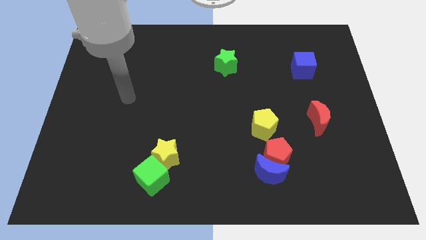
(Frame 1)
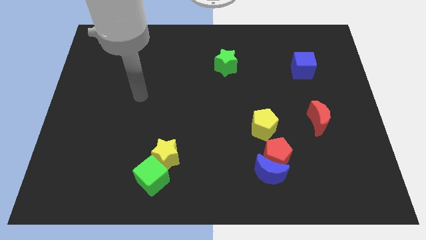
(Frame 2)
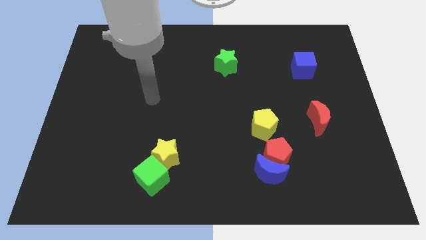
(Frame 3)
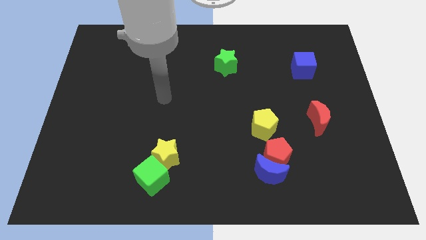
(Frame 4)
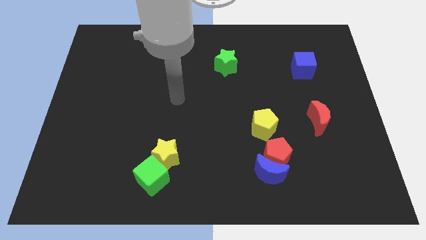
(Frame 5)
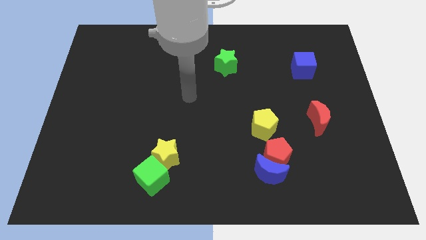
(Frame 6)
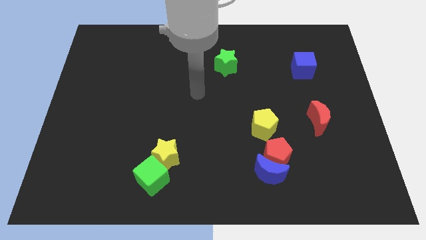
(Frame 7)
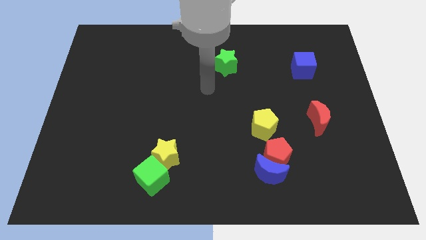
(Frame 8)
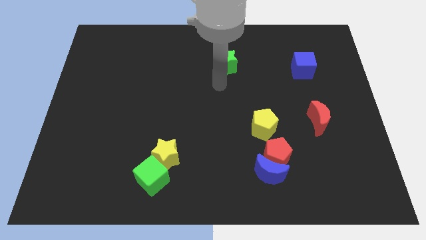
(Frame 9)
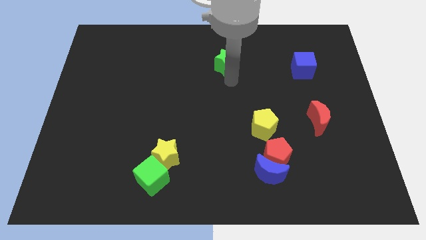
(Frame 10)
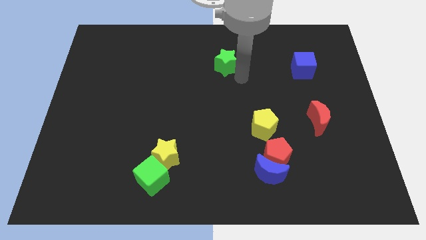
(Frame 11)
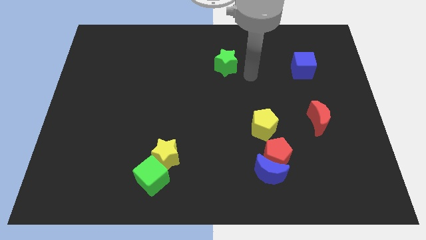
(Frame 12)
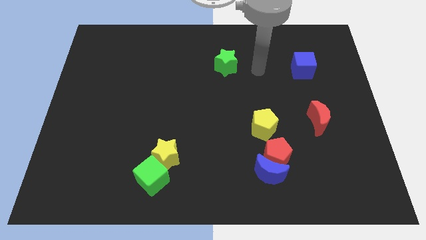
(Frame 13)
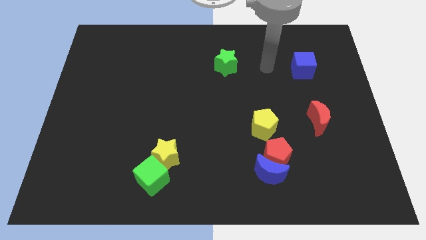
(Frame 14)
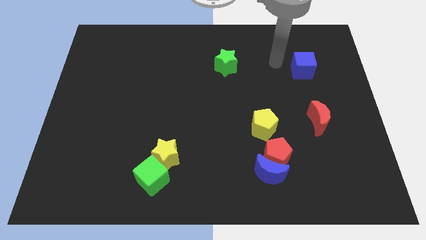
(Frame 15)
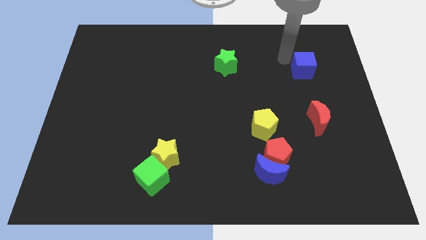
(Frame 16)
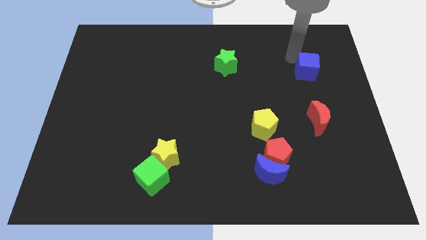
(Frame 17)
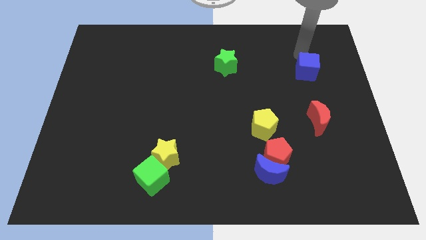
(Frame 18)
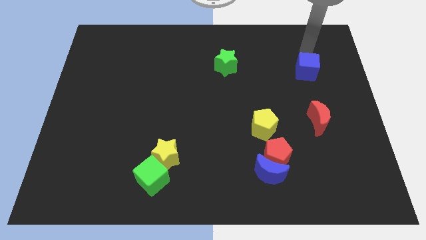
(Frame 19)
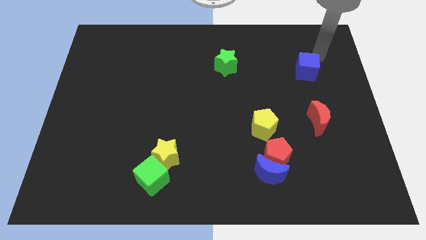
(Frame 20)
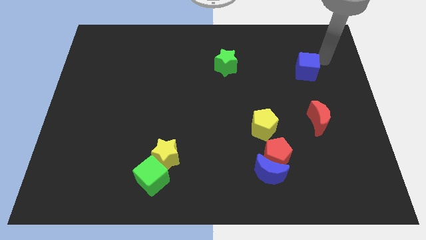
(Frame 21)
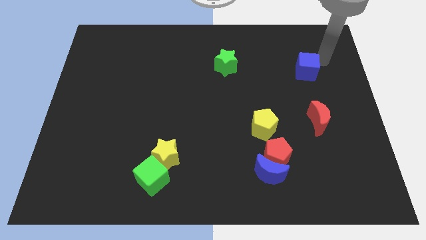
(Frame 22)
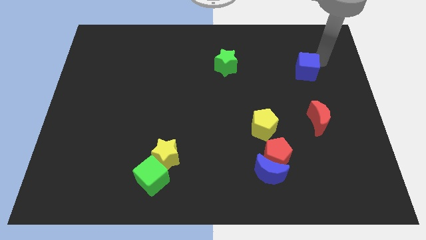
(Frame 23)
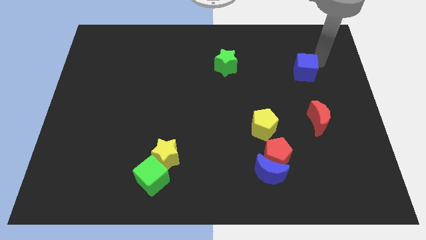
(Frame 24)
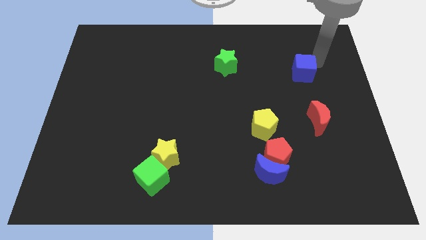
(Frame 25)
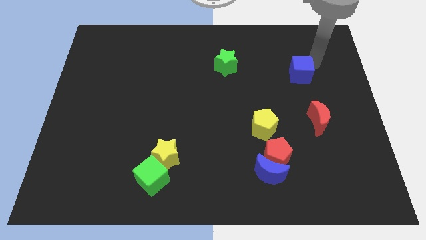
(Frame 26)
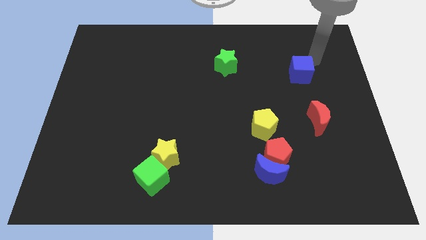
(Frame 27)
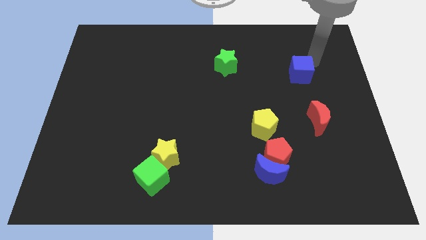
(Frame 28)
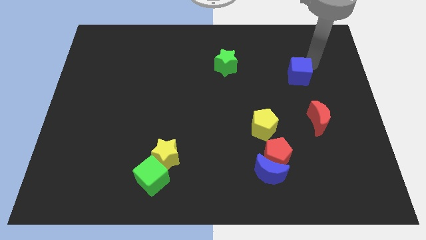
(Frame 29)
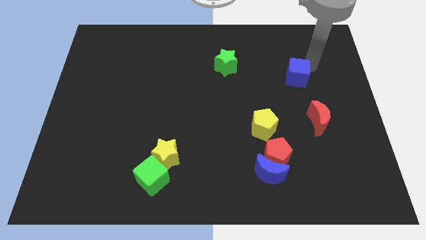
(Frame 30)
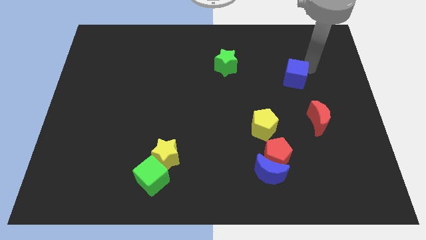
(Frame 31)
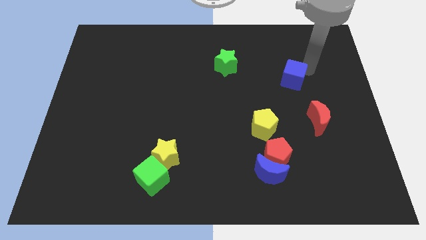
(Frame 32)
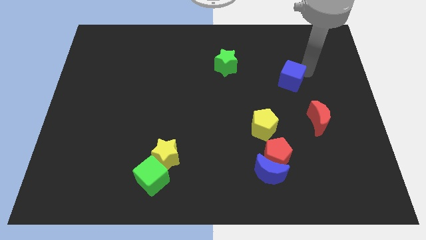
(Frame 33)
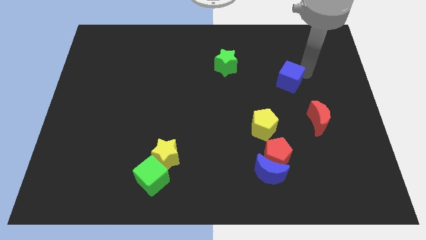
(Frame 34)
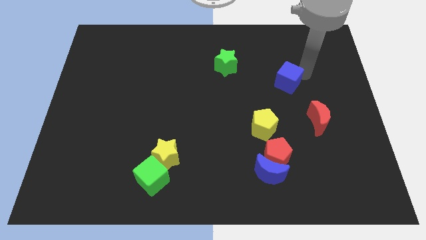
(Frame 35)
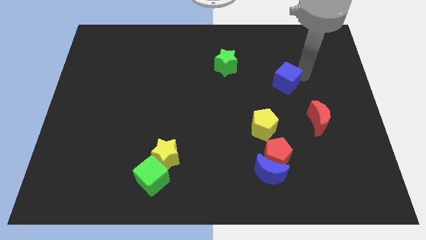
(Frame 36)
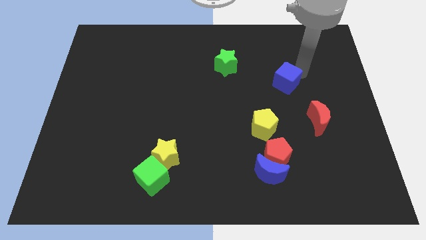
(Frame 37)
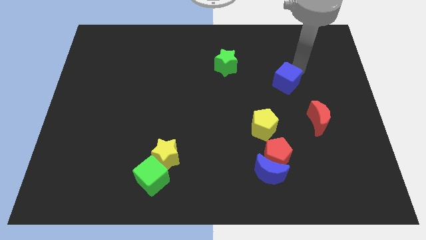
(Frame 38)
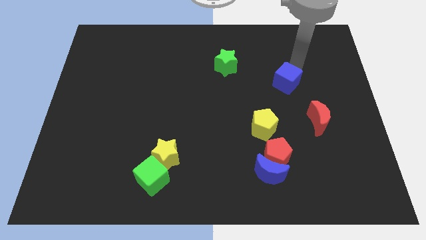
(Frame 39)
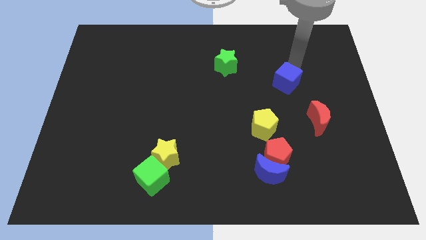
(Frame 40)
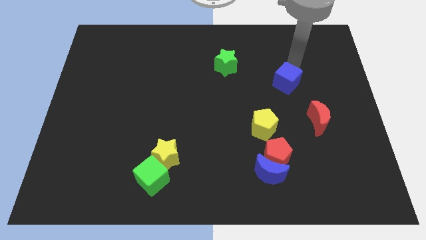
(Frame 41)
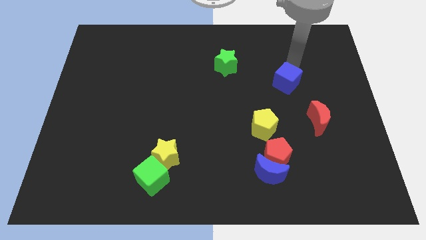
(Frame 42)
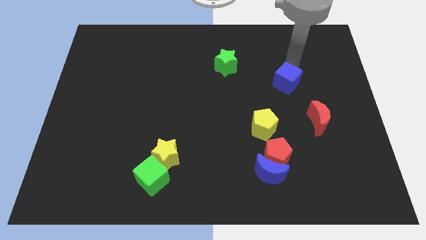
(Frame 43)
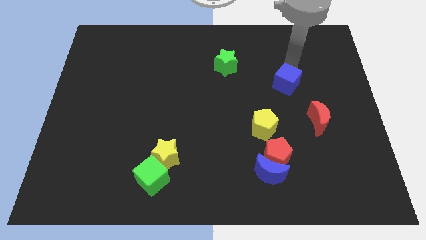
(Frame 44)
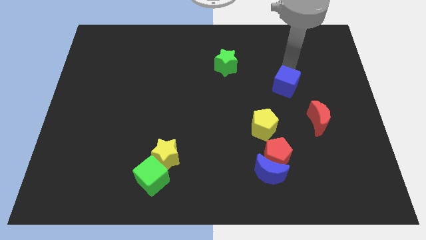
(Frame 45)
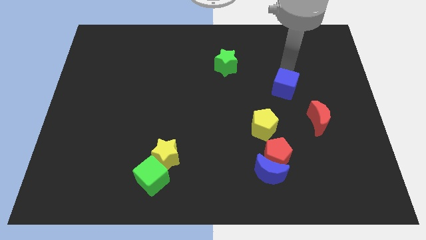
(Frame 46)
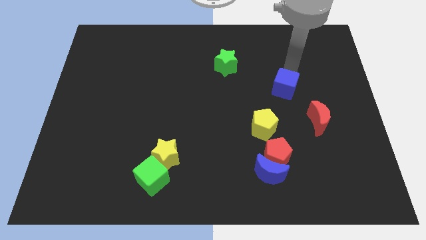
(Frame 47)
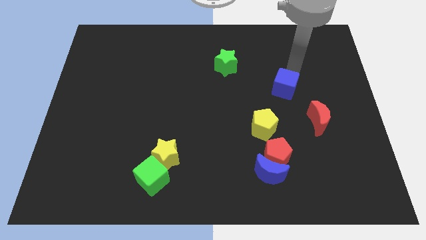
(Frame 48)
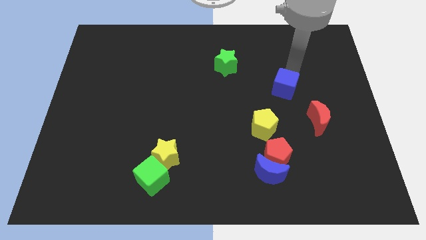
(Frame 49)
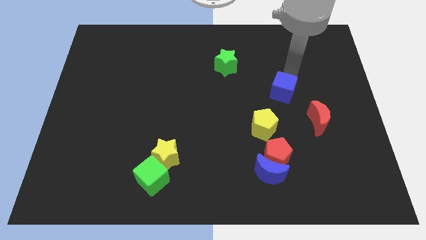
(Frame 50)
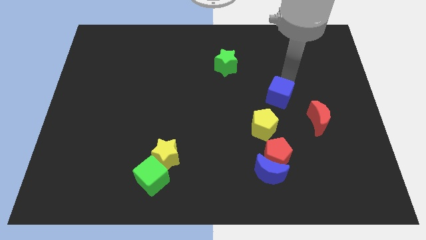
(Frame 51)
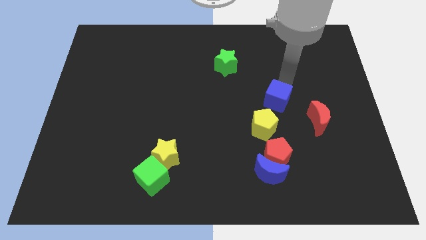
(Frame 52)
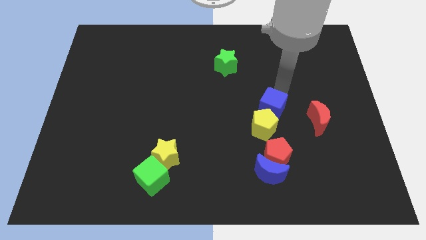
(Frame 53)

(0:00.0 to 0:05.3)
put the blue cube towards the yellow pentagon

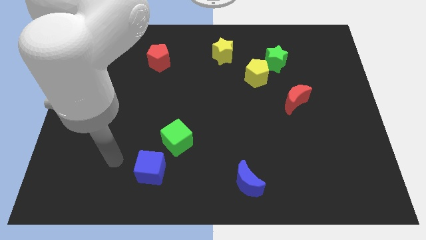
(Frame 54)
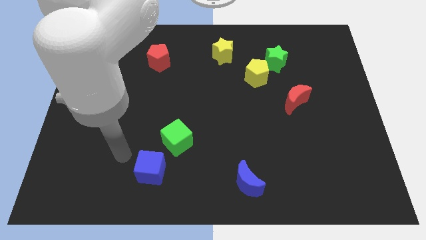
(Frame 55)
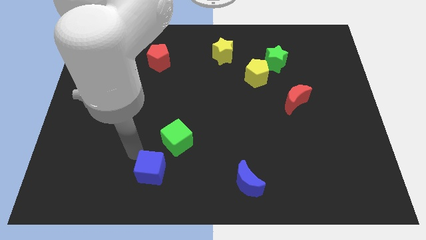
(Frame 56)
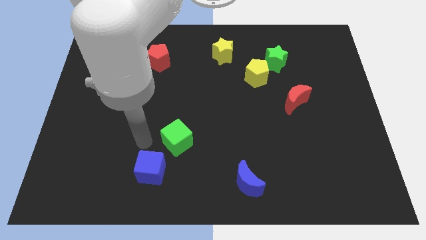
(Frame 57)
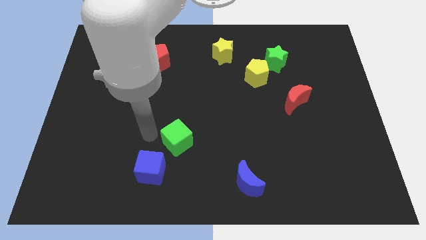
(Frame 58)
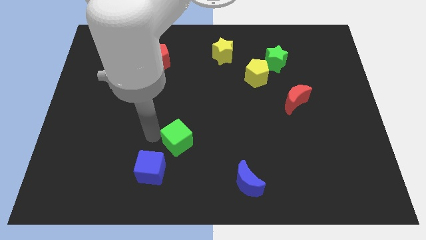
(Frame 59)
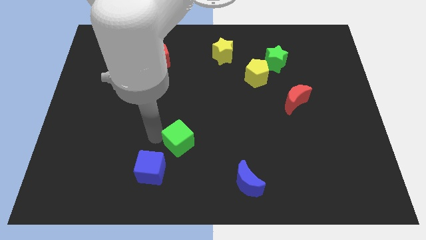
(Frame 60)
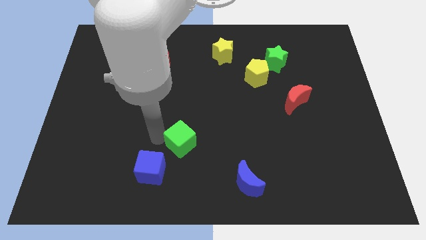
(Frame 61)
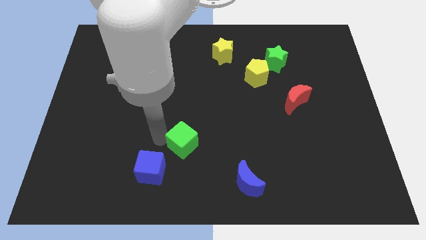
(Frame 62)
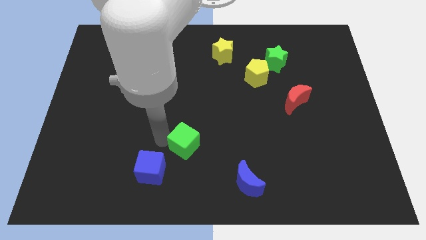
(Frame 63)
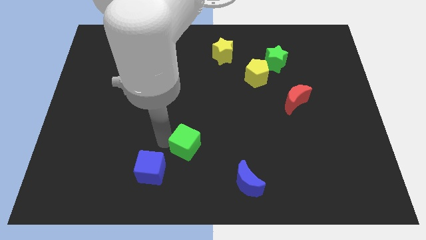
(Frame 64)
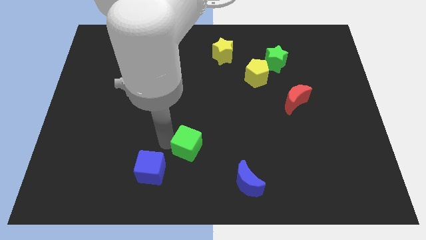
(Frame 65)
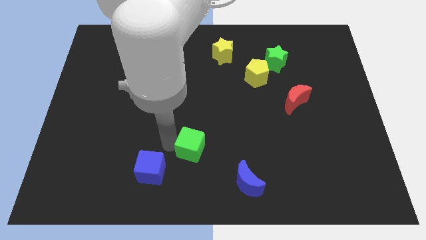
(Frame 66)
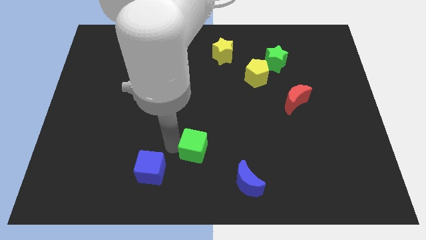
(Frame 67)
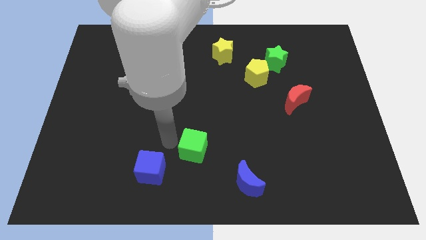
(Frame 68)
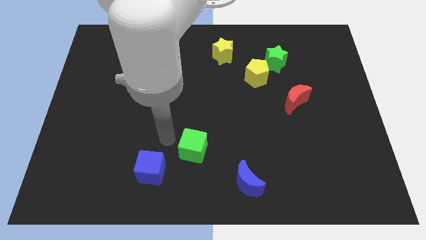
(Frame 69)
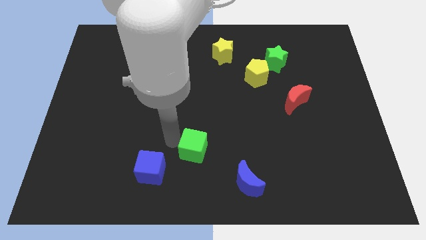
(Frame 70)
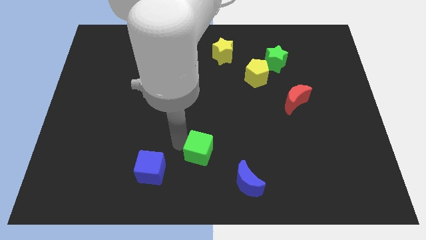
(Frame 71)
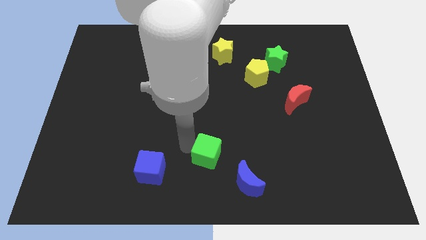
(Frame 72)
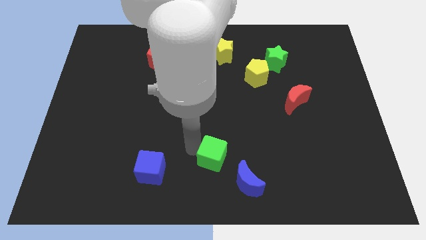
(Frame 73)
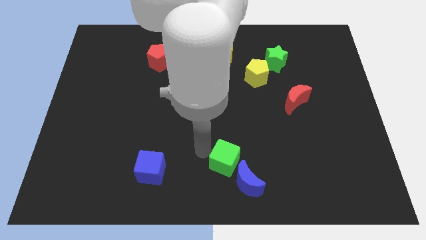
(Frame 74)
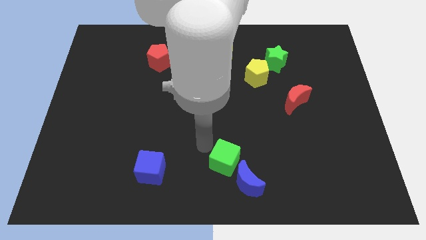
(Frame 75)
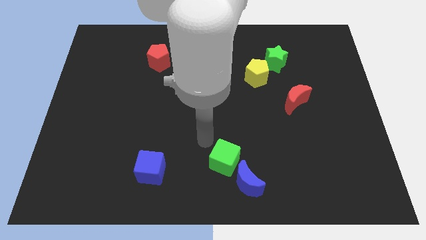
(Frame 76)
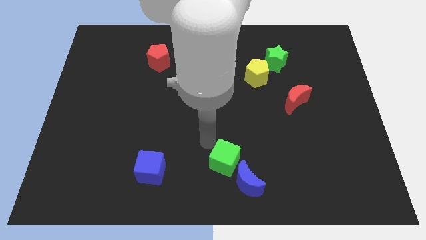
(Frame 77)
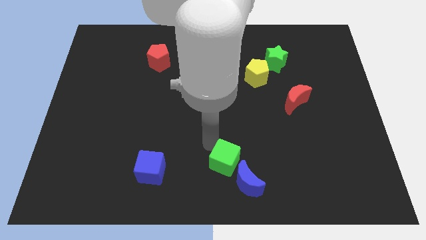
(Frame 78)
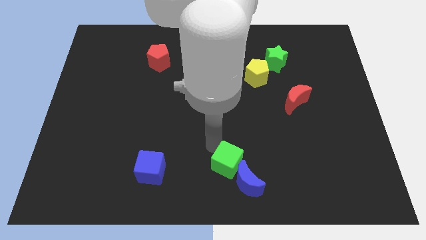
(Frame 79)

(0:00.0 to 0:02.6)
put the green cube next to the blue moon
